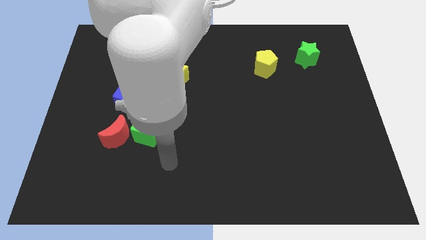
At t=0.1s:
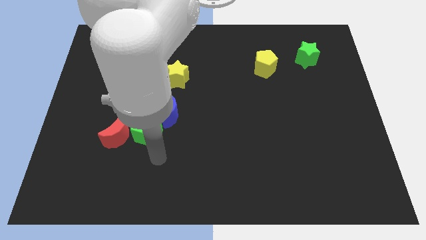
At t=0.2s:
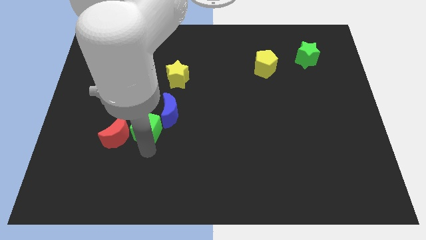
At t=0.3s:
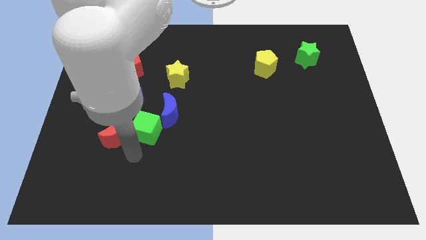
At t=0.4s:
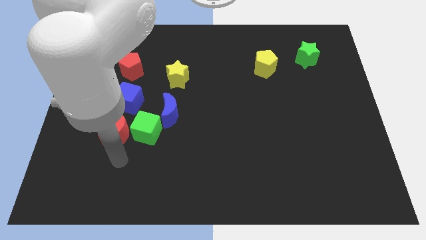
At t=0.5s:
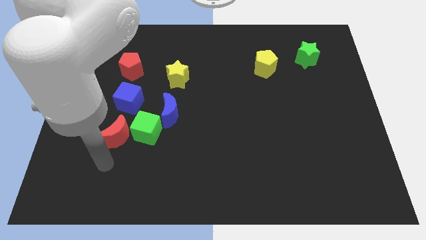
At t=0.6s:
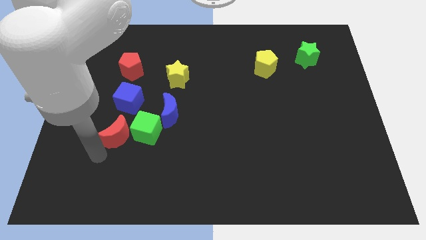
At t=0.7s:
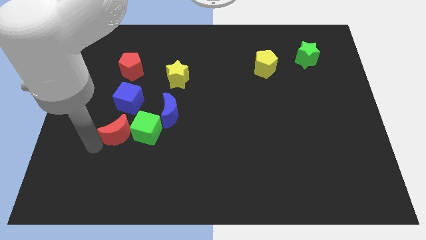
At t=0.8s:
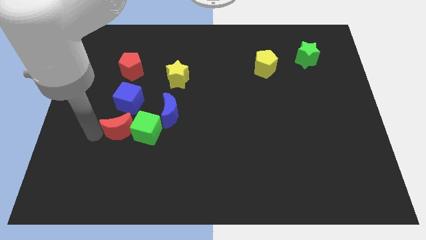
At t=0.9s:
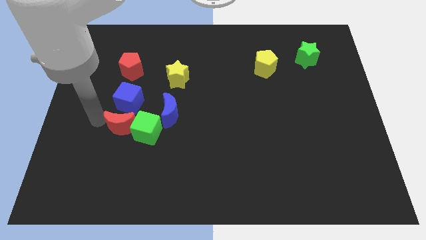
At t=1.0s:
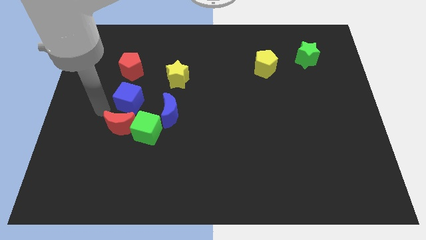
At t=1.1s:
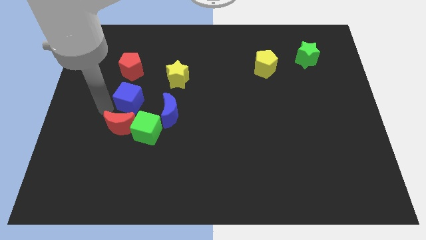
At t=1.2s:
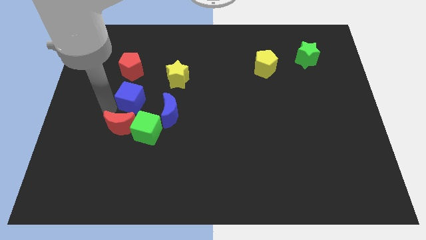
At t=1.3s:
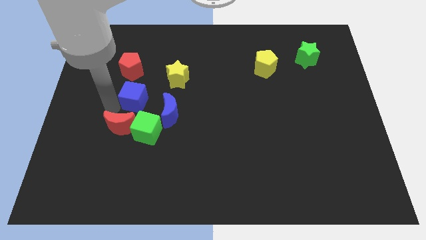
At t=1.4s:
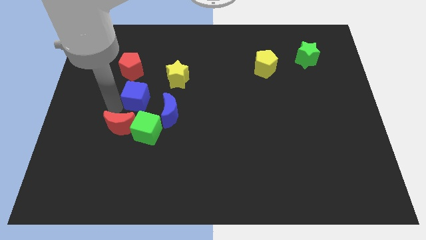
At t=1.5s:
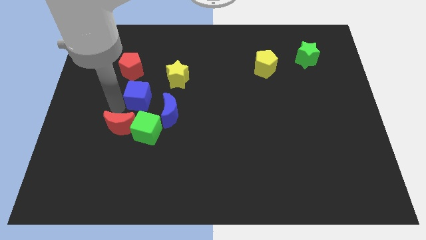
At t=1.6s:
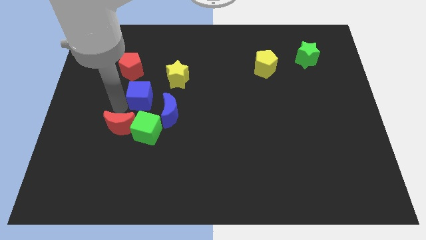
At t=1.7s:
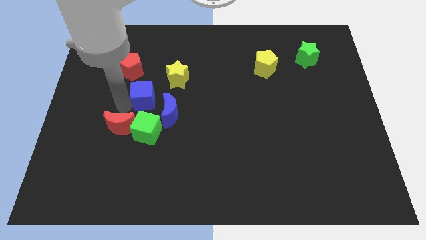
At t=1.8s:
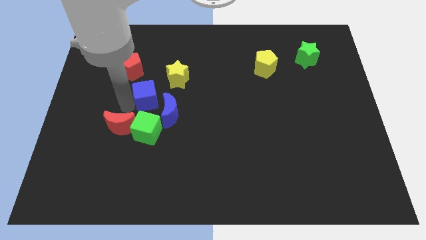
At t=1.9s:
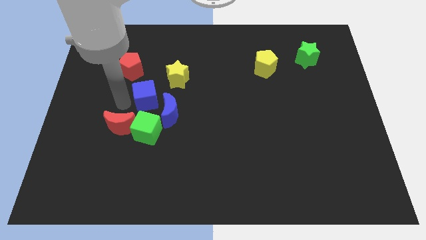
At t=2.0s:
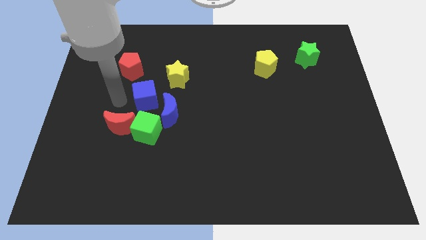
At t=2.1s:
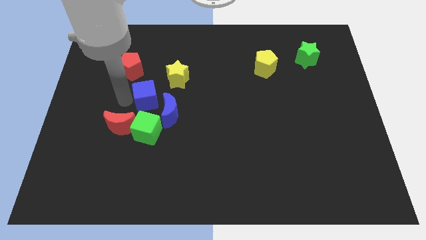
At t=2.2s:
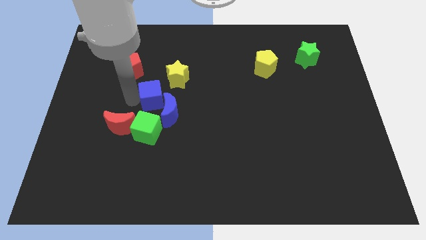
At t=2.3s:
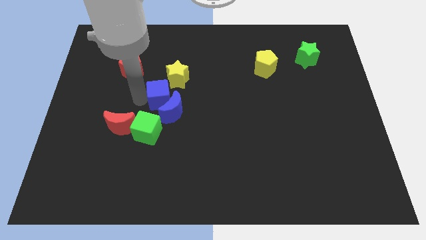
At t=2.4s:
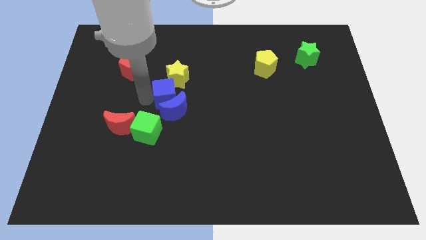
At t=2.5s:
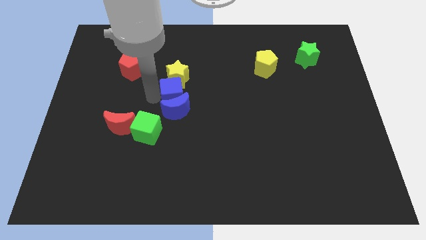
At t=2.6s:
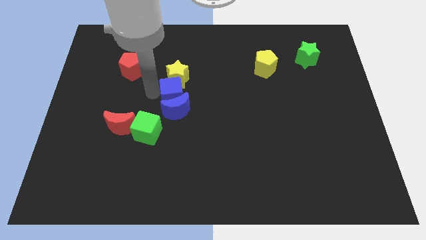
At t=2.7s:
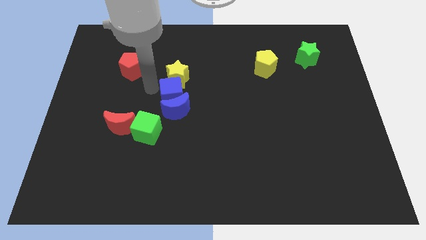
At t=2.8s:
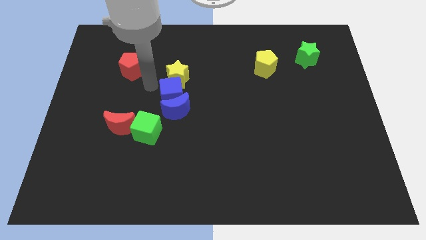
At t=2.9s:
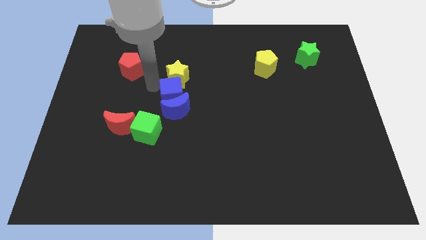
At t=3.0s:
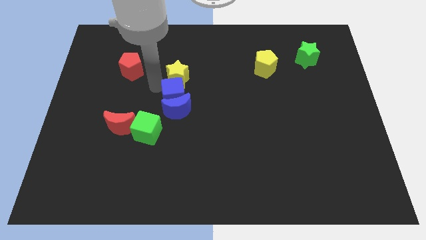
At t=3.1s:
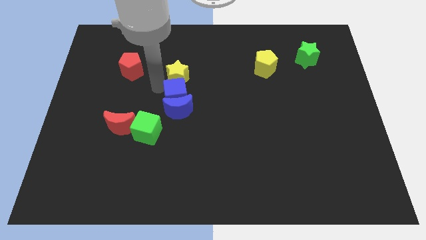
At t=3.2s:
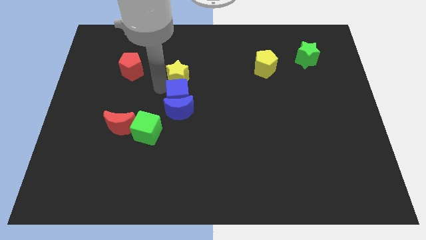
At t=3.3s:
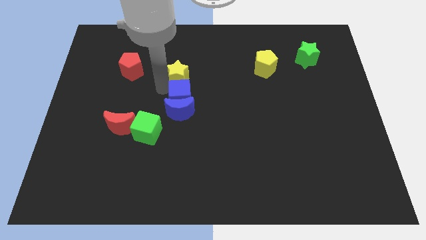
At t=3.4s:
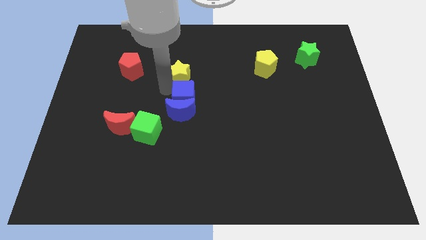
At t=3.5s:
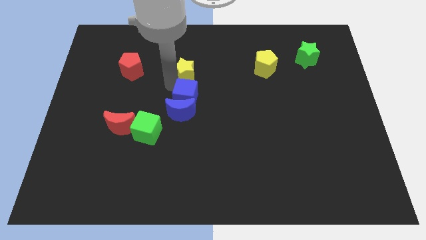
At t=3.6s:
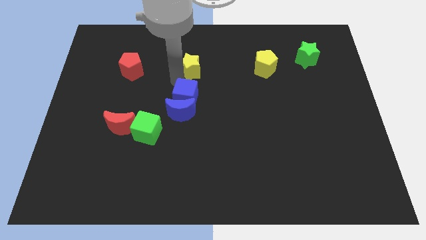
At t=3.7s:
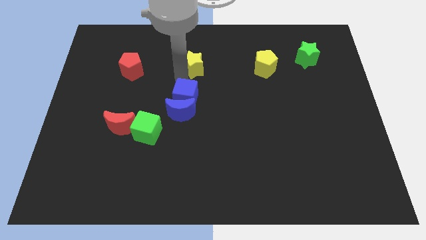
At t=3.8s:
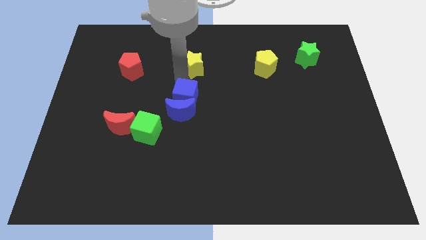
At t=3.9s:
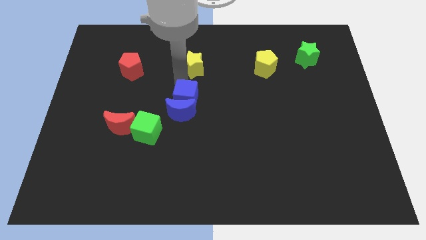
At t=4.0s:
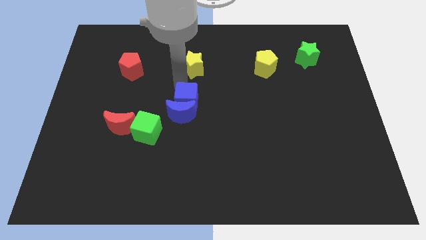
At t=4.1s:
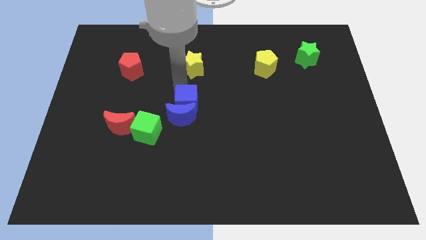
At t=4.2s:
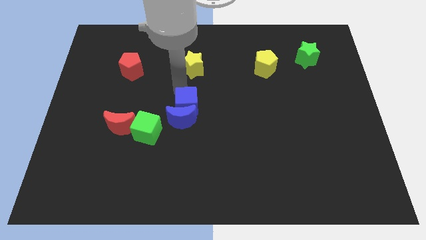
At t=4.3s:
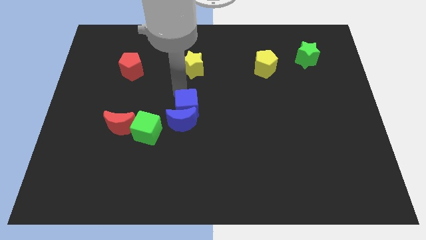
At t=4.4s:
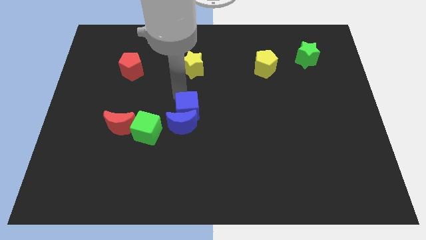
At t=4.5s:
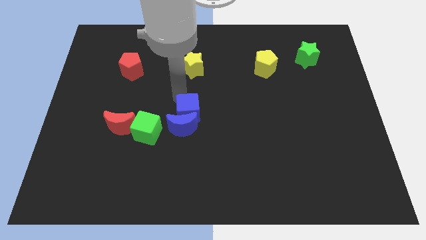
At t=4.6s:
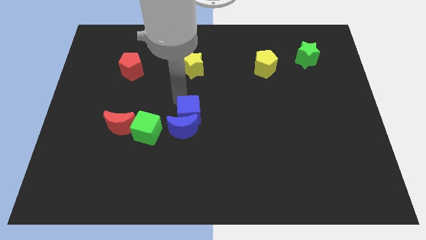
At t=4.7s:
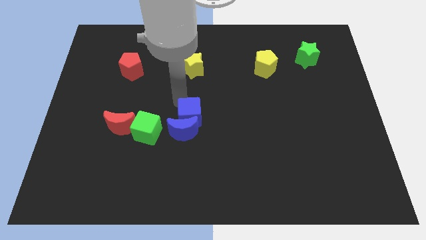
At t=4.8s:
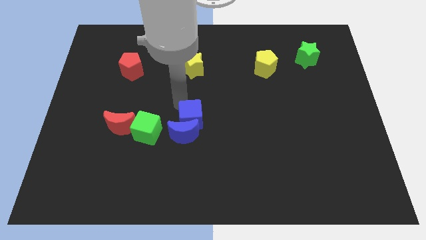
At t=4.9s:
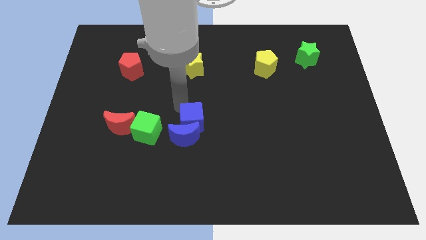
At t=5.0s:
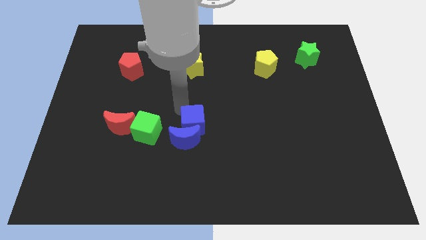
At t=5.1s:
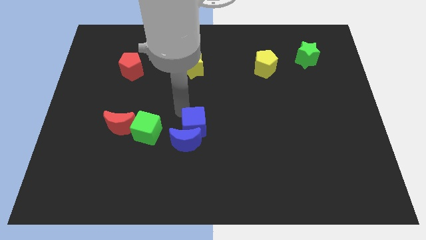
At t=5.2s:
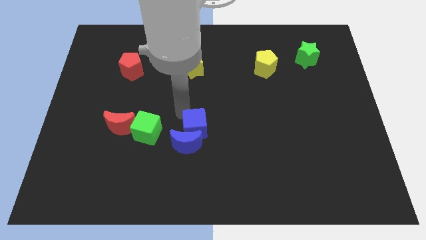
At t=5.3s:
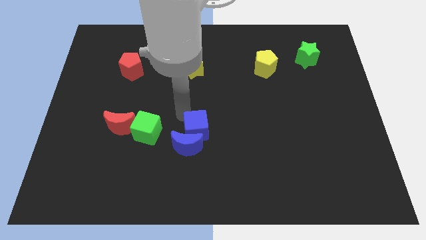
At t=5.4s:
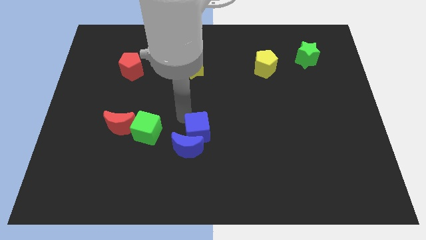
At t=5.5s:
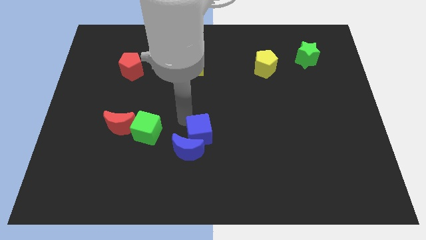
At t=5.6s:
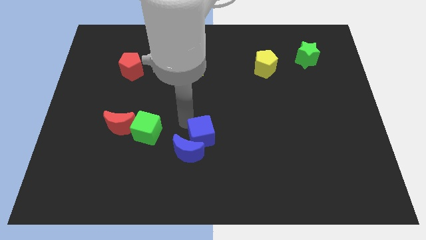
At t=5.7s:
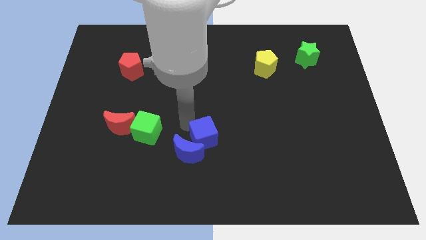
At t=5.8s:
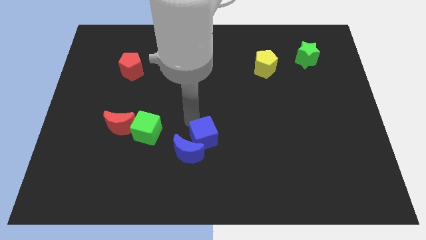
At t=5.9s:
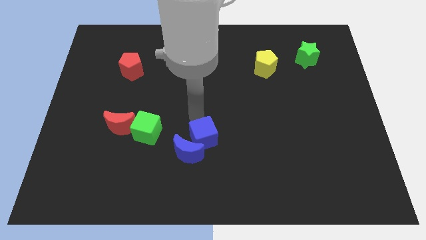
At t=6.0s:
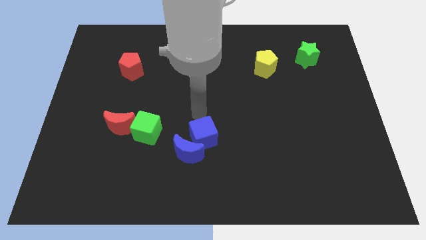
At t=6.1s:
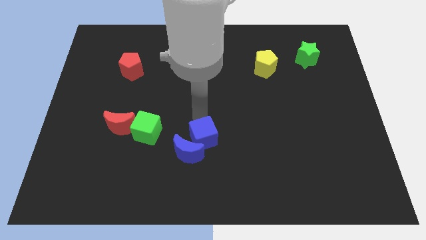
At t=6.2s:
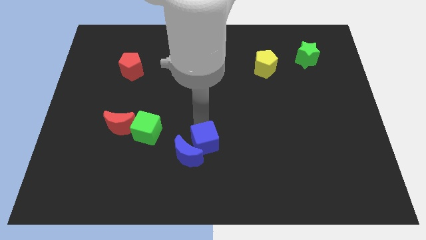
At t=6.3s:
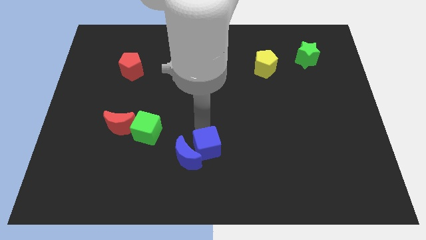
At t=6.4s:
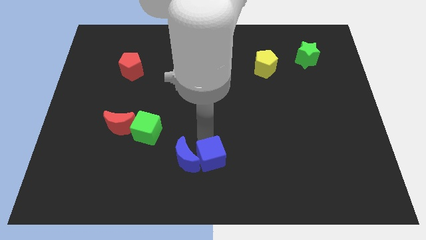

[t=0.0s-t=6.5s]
slide the blue cube to the bottom side

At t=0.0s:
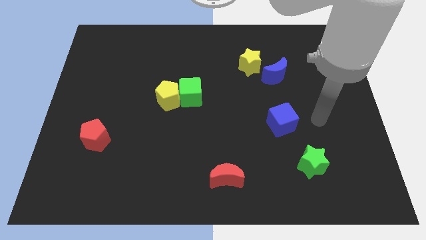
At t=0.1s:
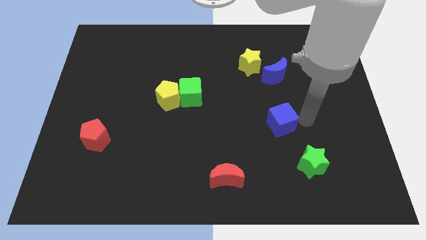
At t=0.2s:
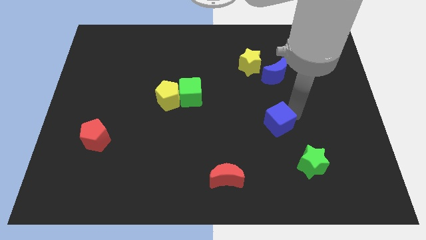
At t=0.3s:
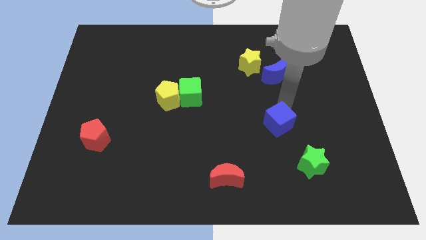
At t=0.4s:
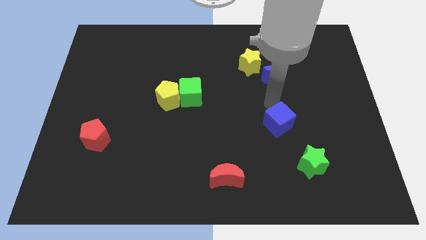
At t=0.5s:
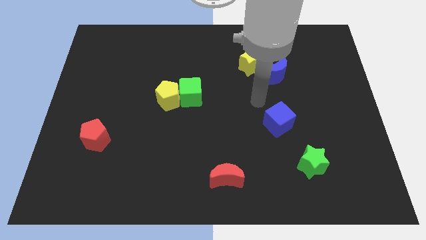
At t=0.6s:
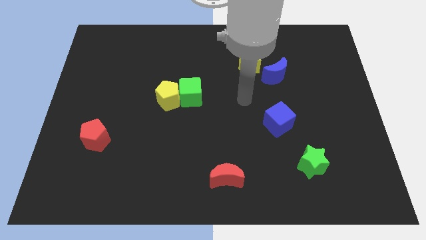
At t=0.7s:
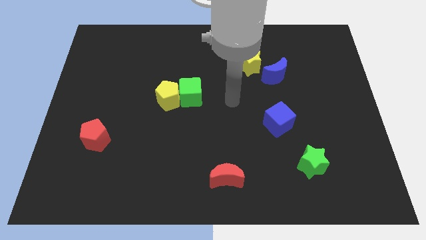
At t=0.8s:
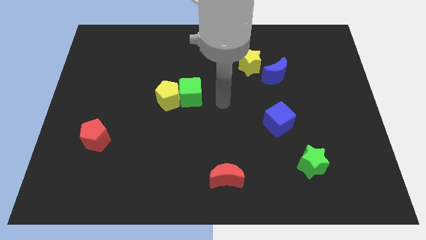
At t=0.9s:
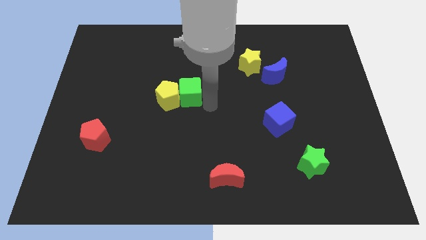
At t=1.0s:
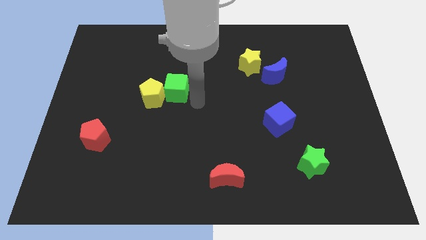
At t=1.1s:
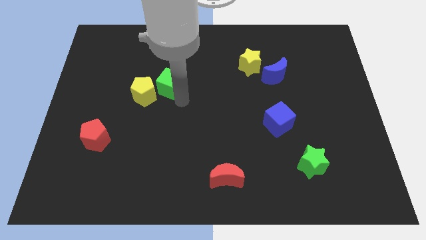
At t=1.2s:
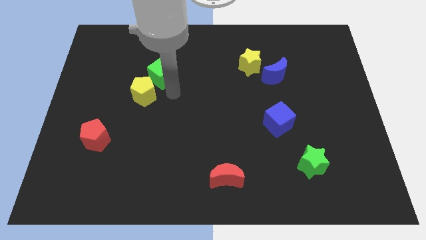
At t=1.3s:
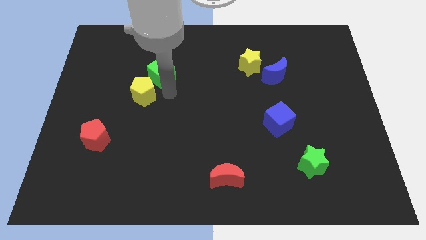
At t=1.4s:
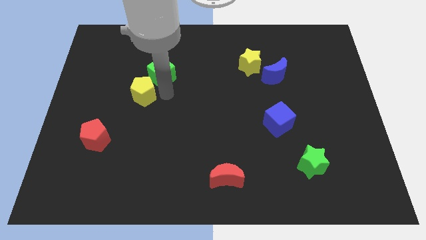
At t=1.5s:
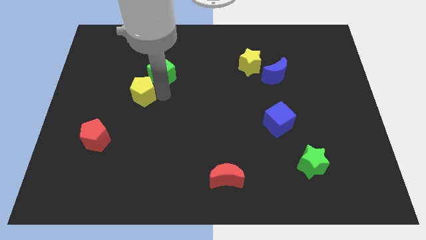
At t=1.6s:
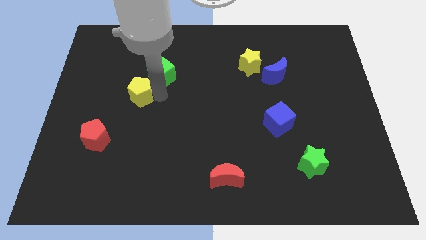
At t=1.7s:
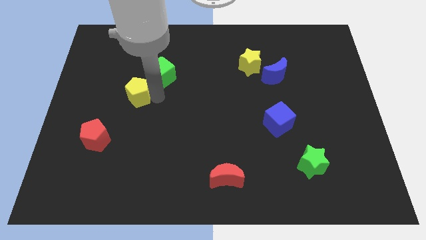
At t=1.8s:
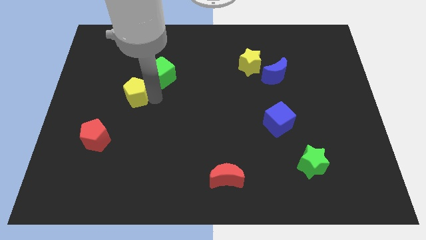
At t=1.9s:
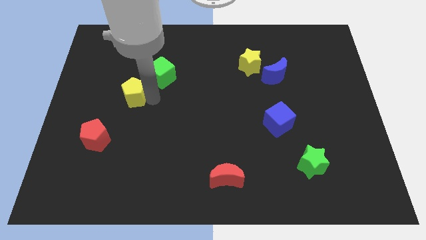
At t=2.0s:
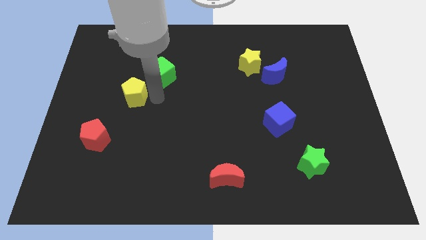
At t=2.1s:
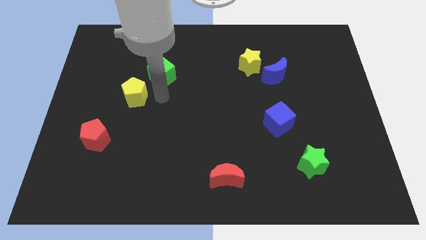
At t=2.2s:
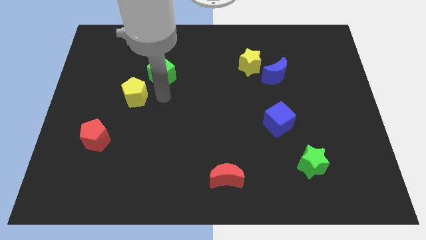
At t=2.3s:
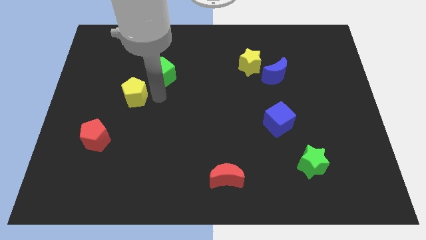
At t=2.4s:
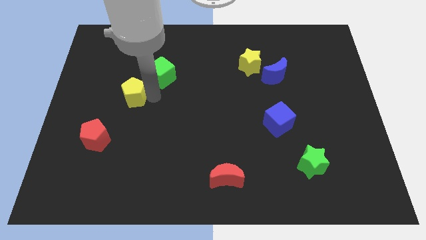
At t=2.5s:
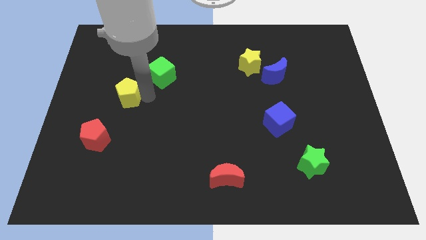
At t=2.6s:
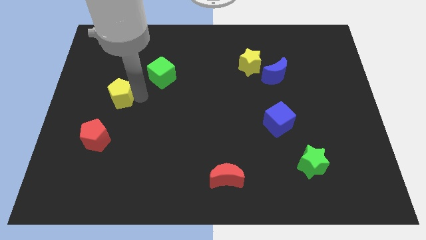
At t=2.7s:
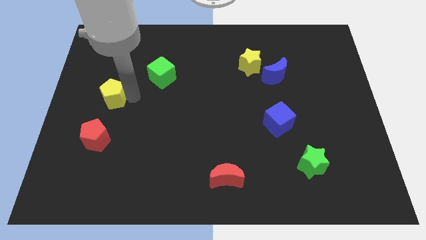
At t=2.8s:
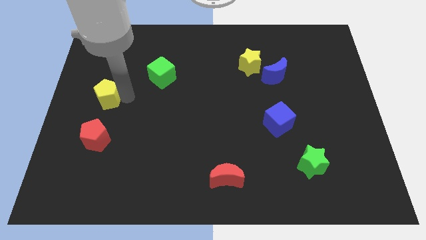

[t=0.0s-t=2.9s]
push the yellow pentagon to the left side
